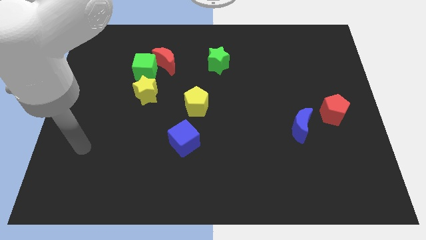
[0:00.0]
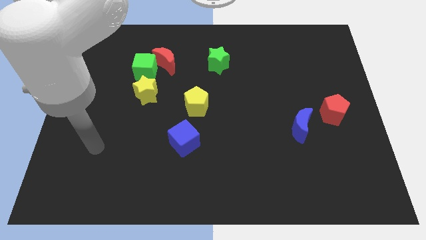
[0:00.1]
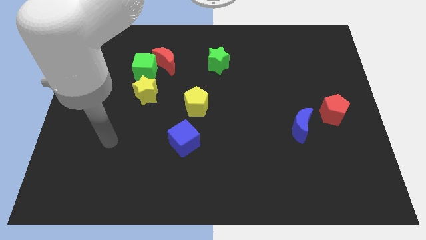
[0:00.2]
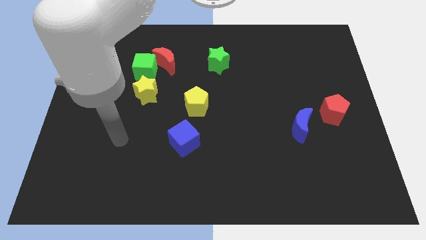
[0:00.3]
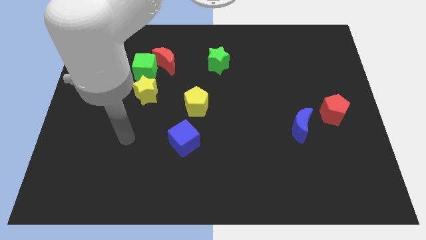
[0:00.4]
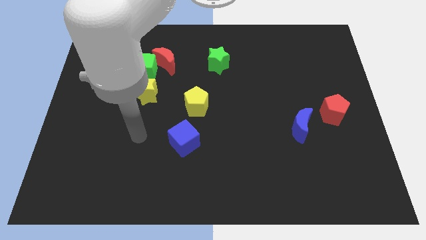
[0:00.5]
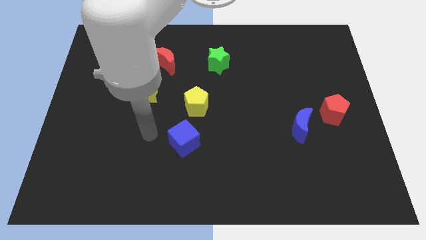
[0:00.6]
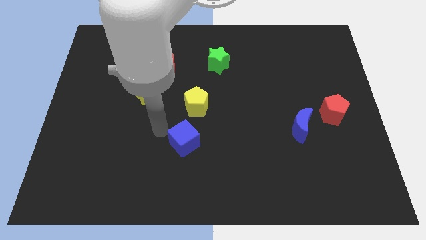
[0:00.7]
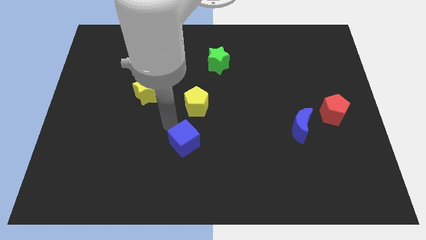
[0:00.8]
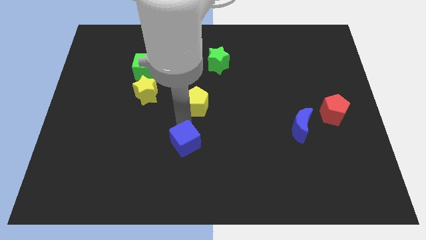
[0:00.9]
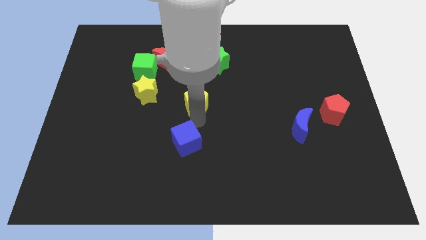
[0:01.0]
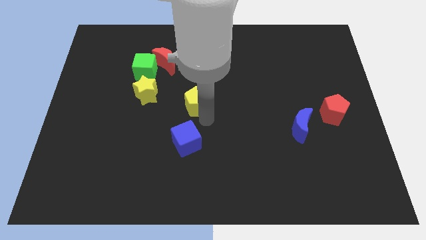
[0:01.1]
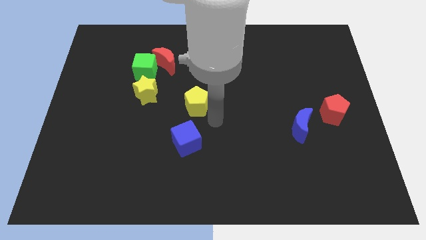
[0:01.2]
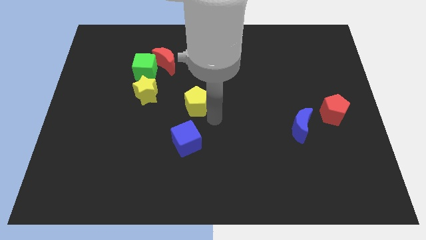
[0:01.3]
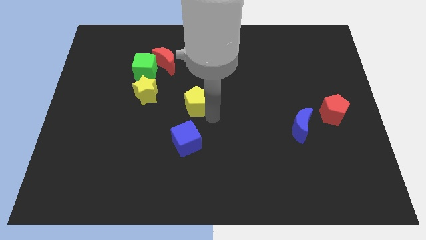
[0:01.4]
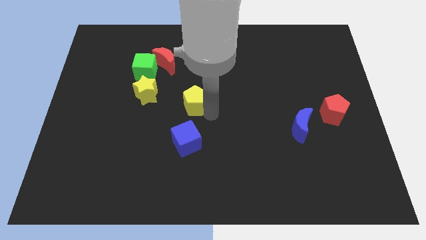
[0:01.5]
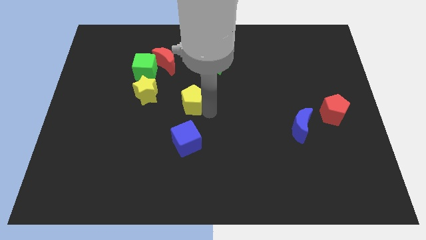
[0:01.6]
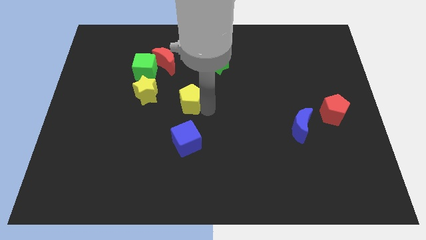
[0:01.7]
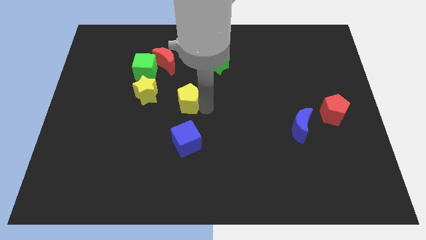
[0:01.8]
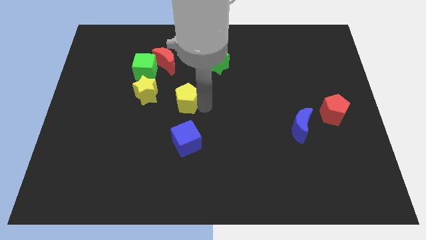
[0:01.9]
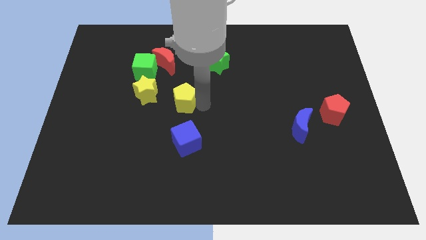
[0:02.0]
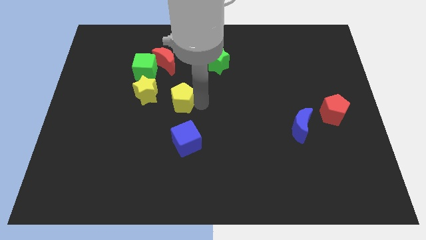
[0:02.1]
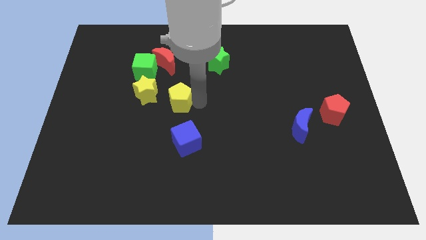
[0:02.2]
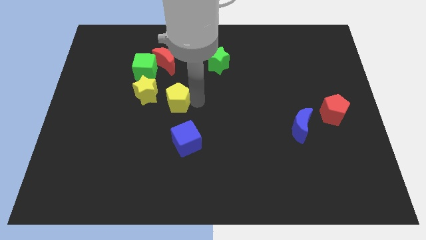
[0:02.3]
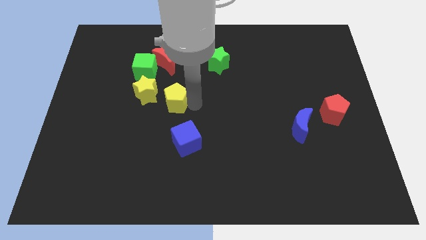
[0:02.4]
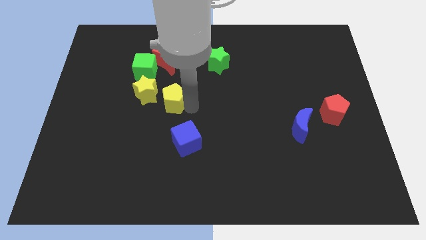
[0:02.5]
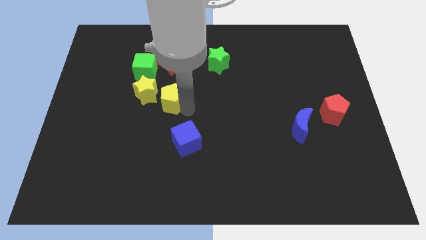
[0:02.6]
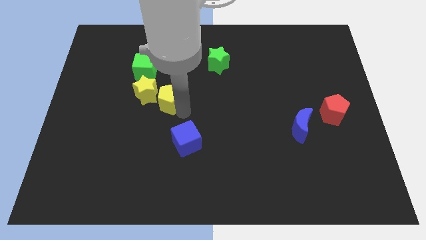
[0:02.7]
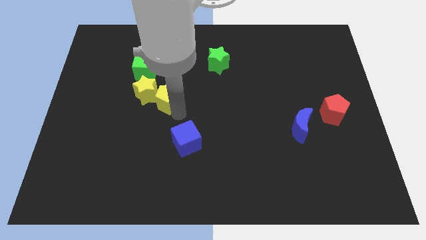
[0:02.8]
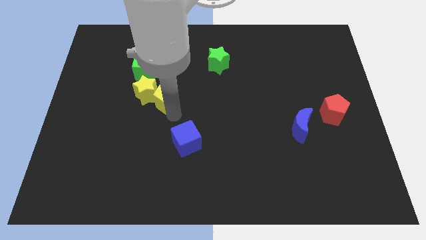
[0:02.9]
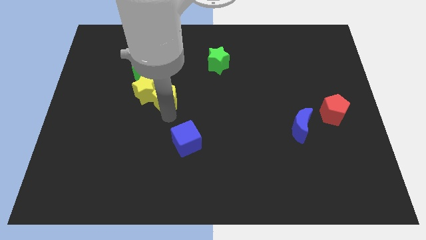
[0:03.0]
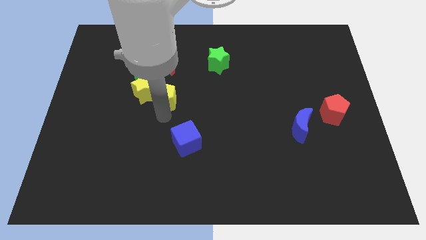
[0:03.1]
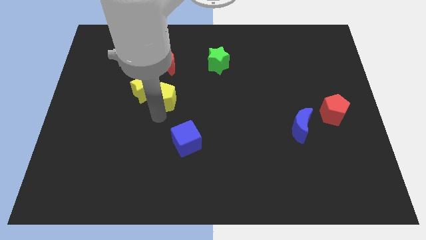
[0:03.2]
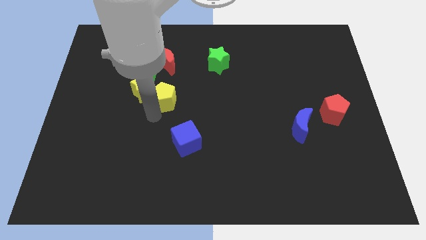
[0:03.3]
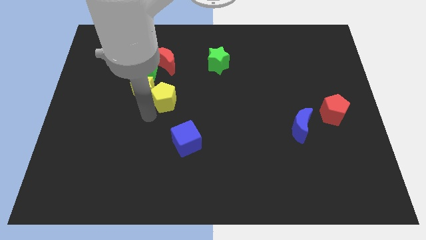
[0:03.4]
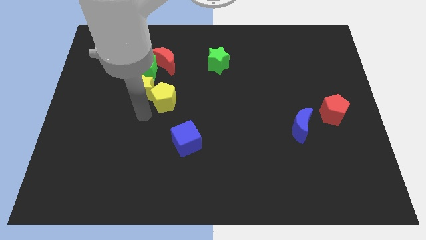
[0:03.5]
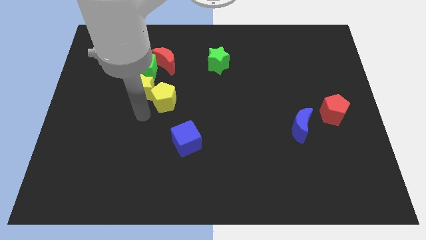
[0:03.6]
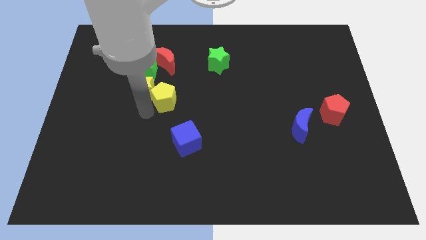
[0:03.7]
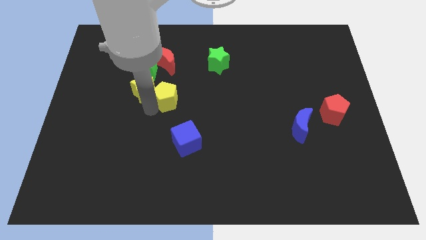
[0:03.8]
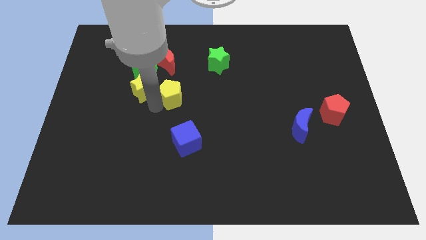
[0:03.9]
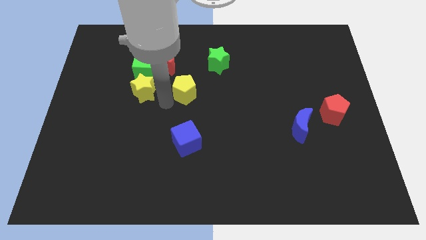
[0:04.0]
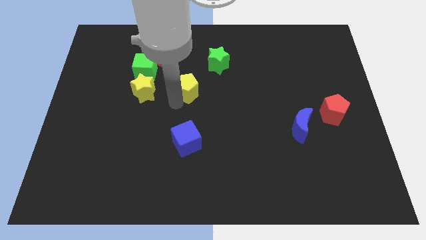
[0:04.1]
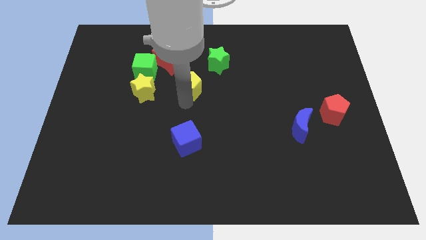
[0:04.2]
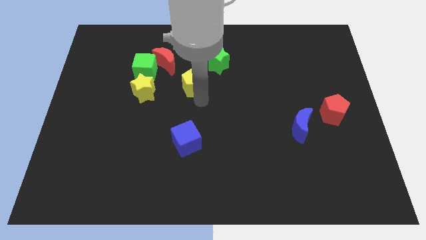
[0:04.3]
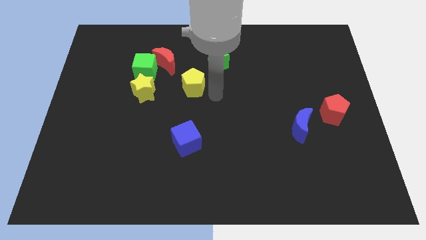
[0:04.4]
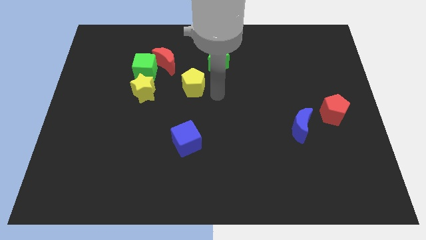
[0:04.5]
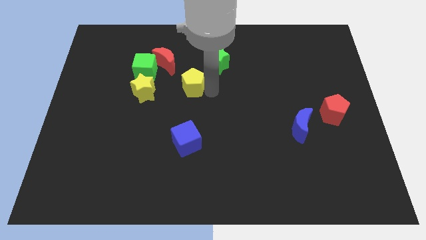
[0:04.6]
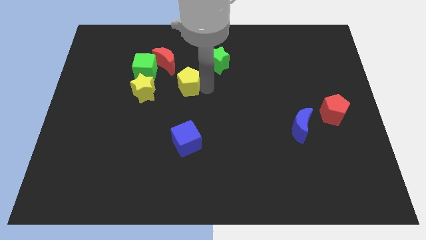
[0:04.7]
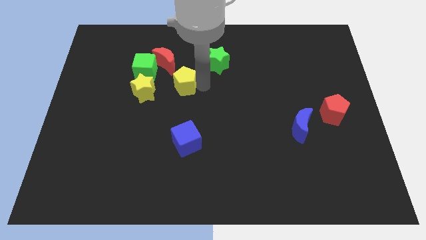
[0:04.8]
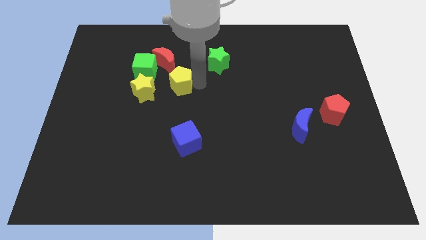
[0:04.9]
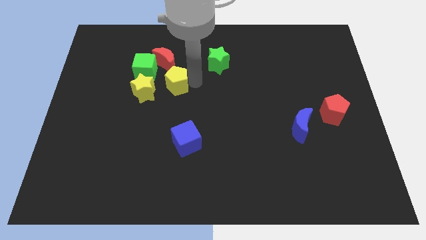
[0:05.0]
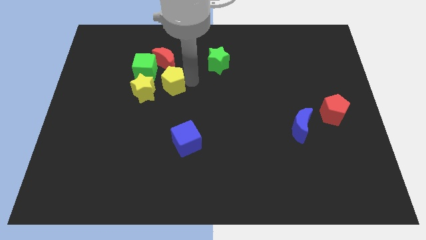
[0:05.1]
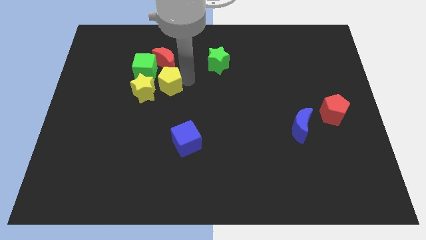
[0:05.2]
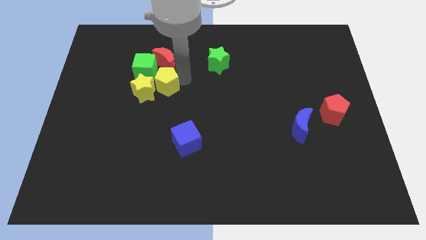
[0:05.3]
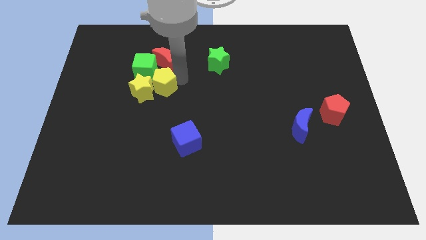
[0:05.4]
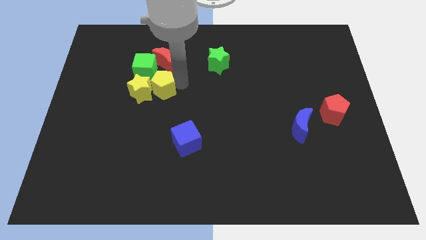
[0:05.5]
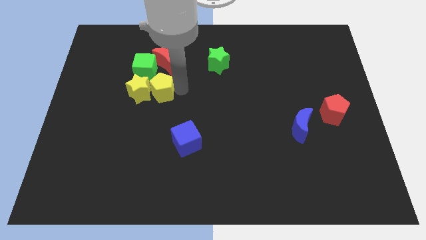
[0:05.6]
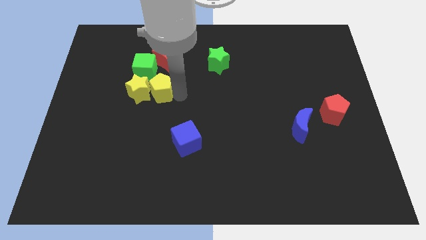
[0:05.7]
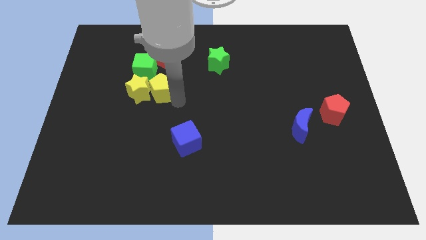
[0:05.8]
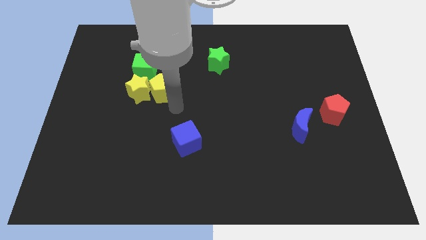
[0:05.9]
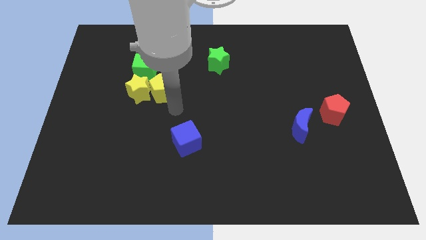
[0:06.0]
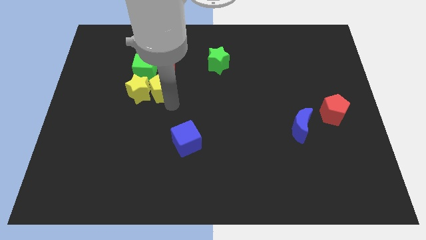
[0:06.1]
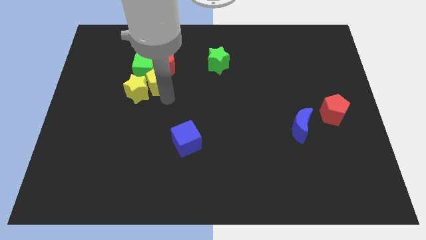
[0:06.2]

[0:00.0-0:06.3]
slide the yellow pentagon next to the green cube

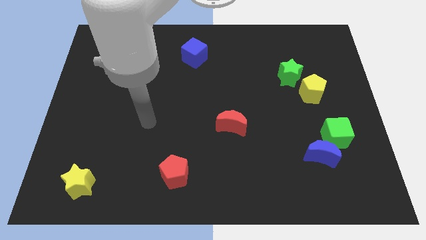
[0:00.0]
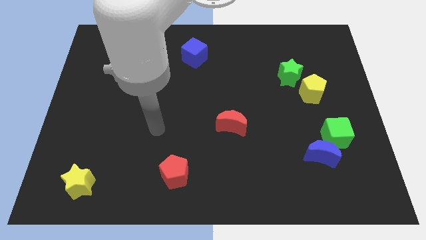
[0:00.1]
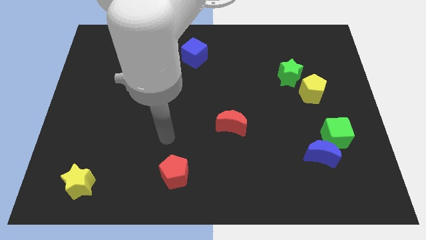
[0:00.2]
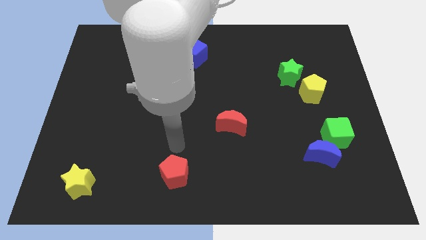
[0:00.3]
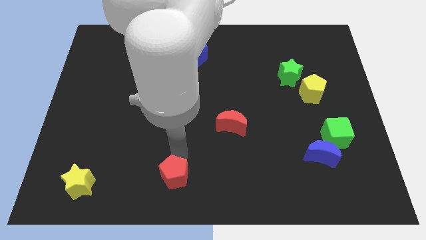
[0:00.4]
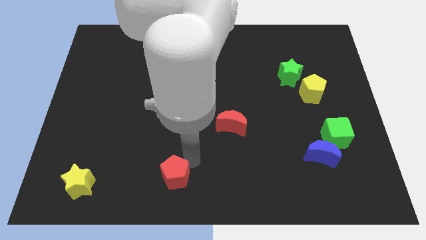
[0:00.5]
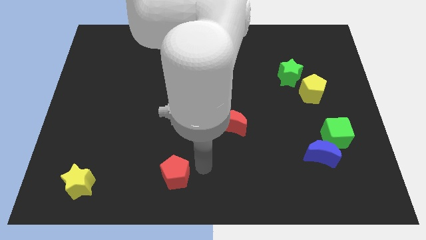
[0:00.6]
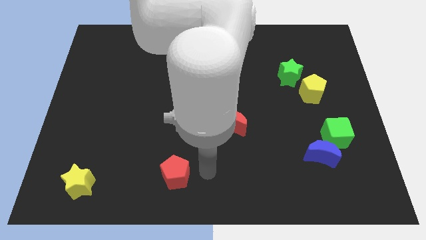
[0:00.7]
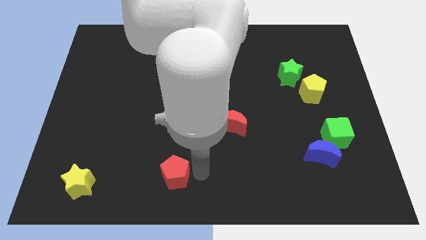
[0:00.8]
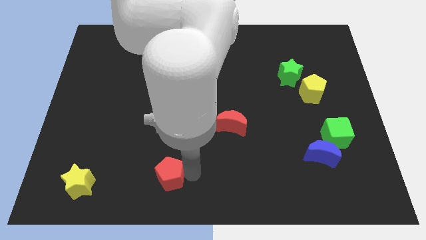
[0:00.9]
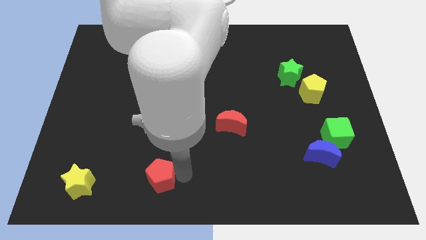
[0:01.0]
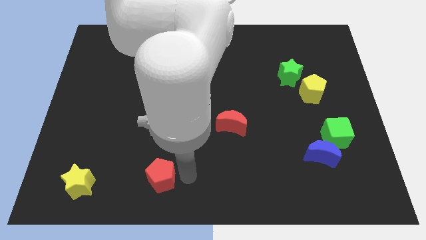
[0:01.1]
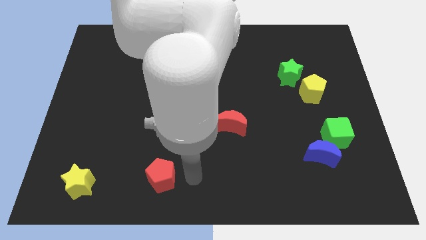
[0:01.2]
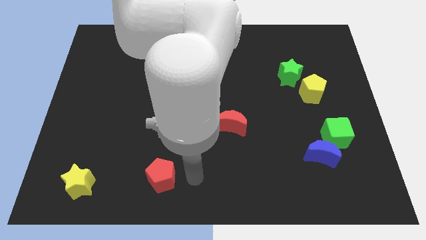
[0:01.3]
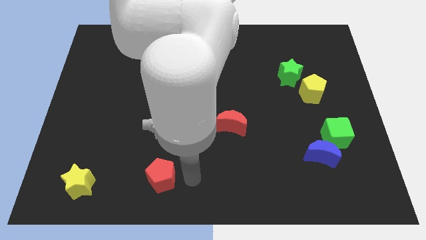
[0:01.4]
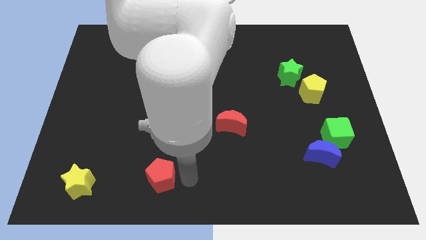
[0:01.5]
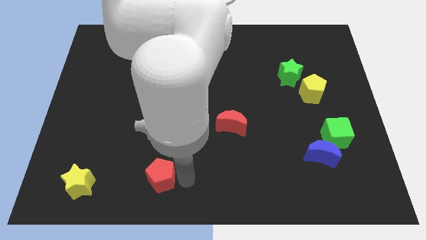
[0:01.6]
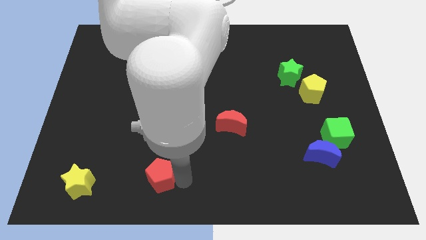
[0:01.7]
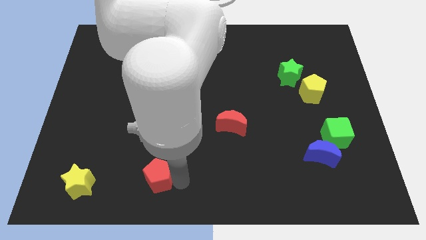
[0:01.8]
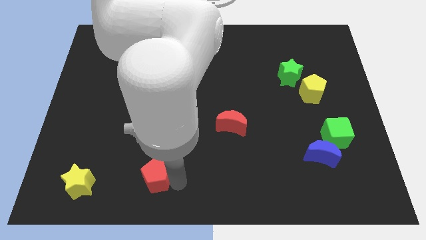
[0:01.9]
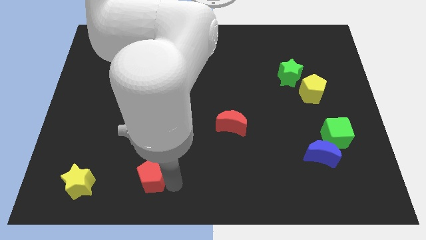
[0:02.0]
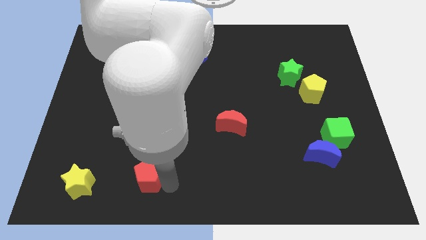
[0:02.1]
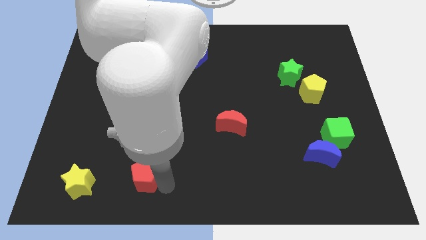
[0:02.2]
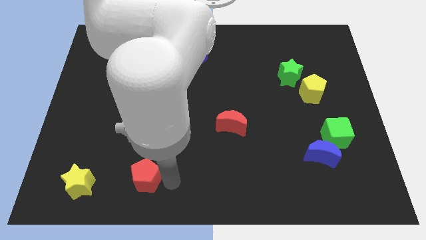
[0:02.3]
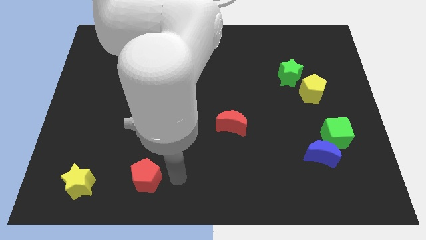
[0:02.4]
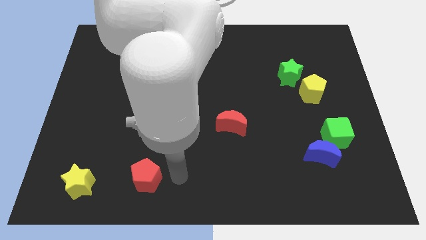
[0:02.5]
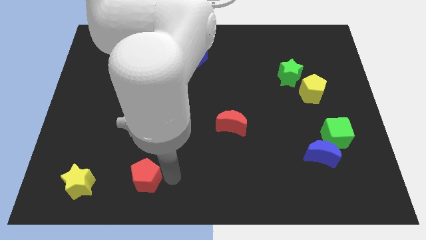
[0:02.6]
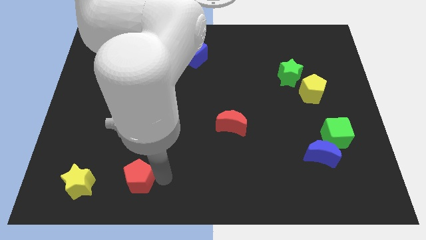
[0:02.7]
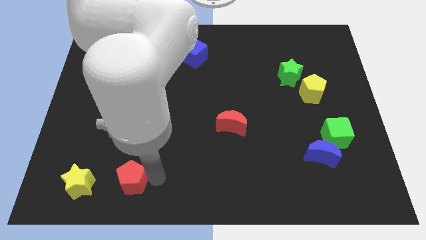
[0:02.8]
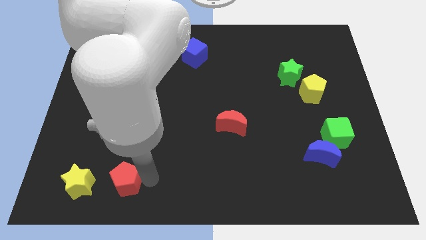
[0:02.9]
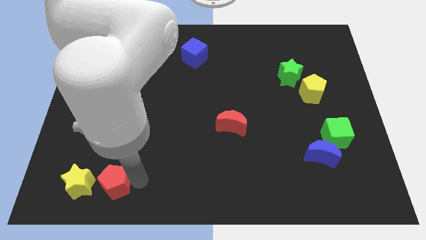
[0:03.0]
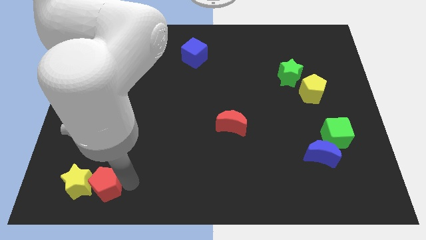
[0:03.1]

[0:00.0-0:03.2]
slide the red pentagon to the yellow star
